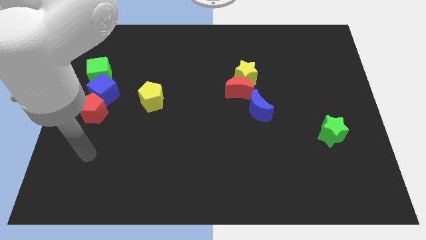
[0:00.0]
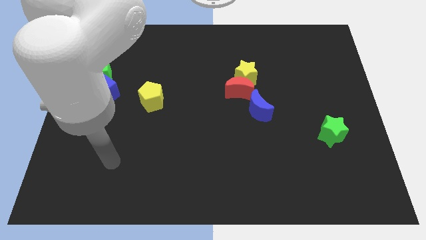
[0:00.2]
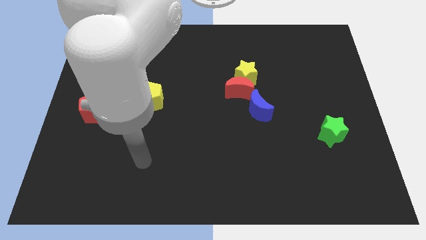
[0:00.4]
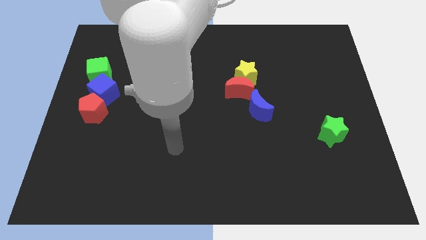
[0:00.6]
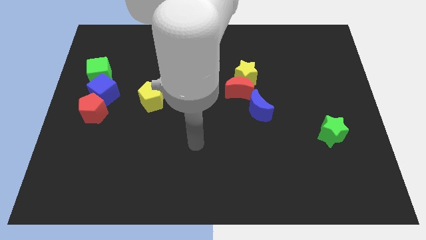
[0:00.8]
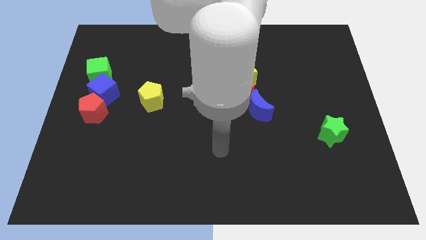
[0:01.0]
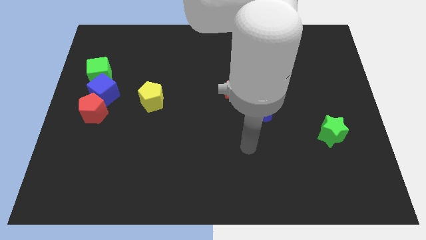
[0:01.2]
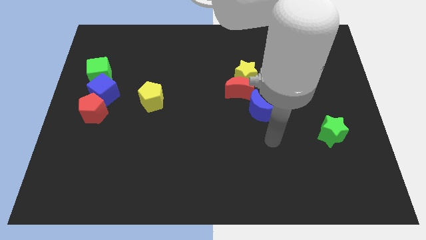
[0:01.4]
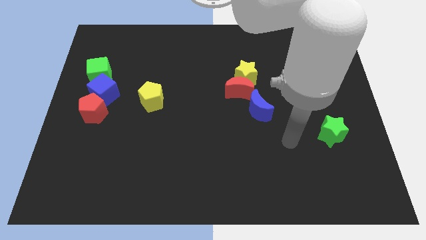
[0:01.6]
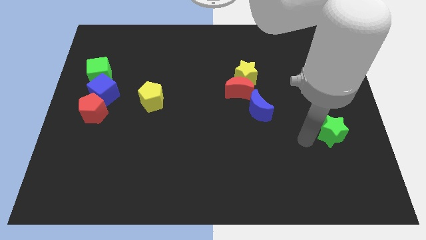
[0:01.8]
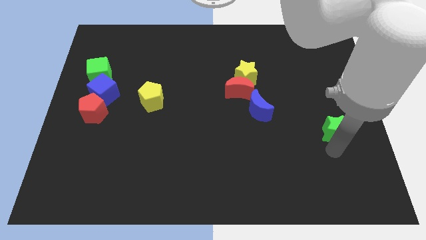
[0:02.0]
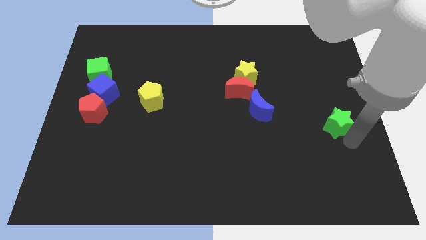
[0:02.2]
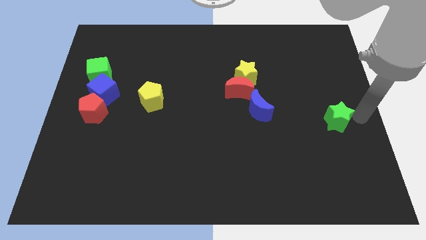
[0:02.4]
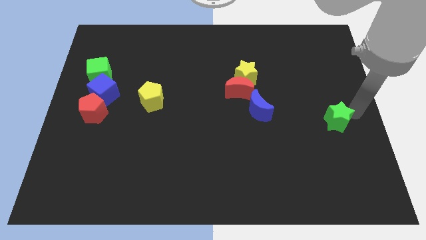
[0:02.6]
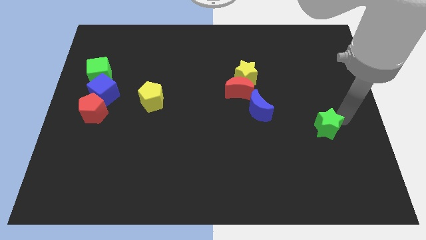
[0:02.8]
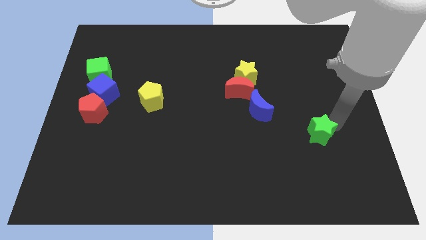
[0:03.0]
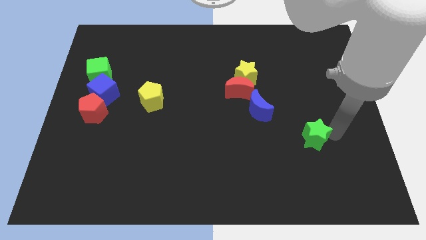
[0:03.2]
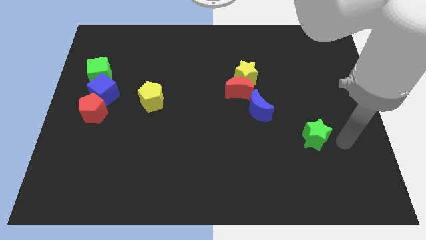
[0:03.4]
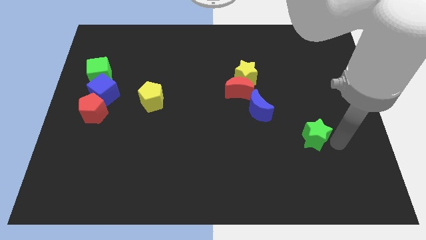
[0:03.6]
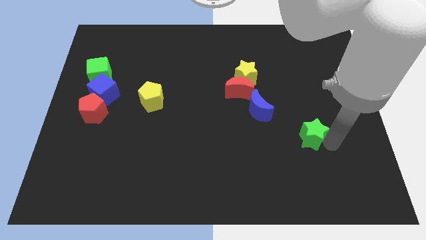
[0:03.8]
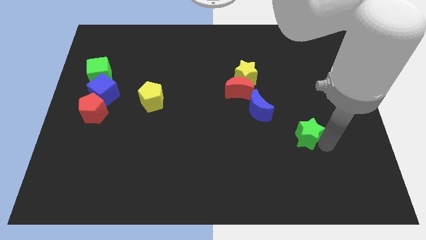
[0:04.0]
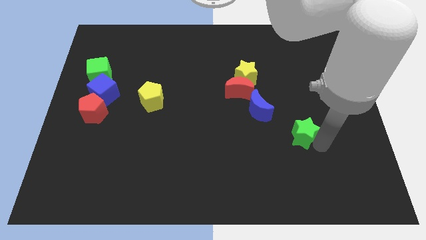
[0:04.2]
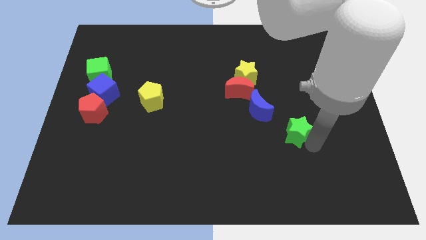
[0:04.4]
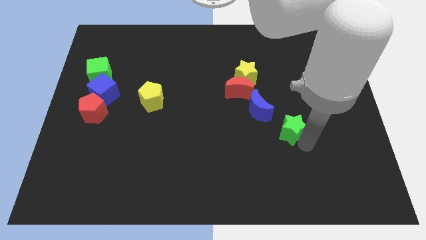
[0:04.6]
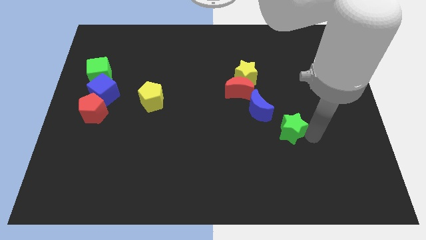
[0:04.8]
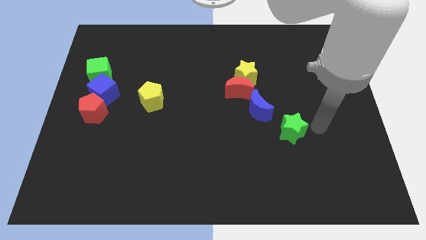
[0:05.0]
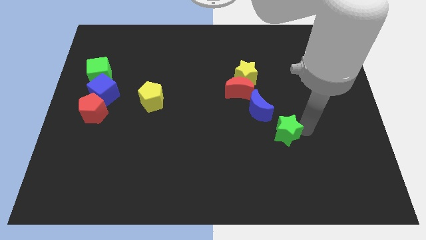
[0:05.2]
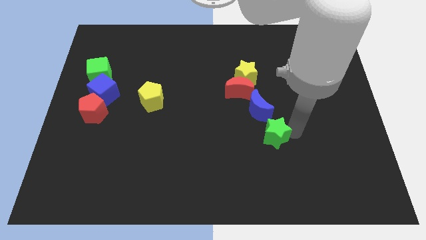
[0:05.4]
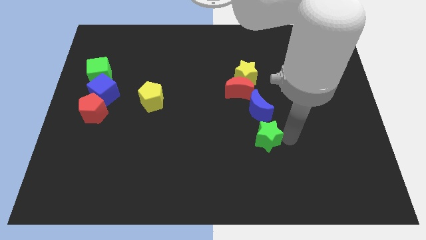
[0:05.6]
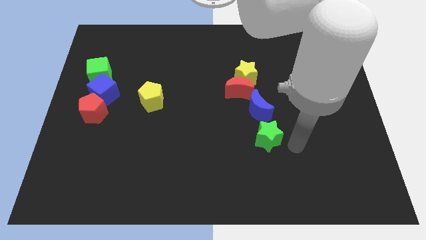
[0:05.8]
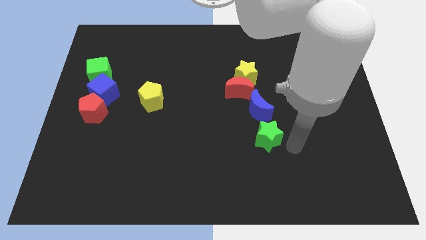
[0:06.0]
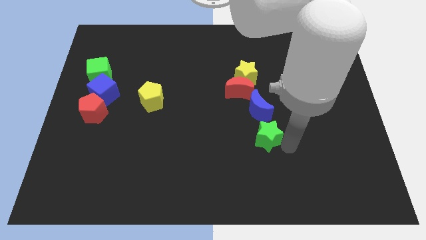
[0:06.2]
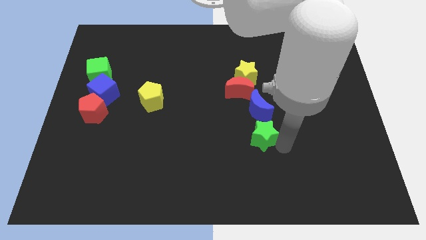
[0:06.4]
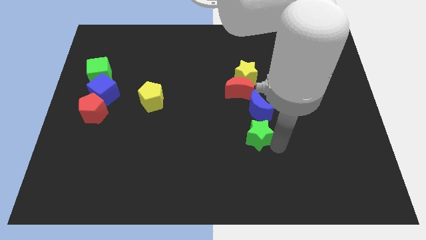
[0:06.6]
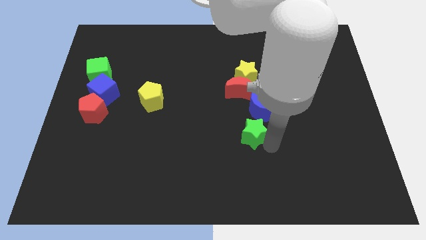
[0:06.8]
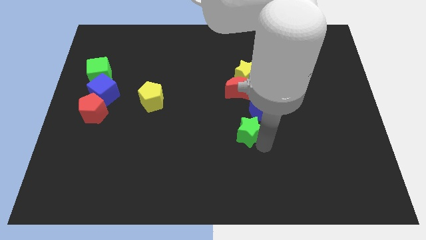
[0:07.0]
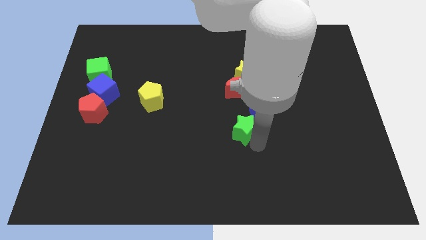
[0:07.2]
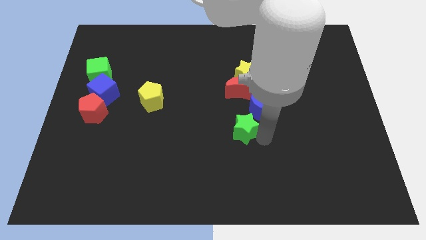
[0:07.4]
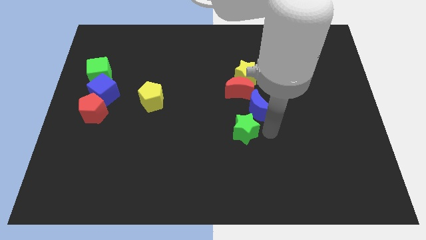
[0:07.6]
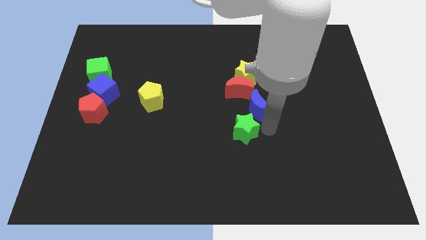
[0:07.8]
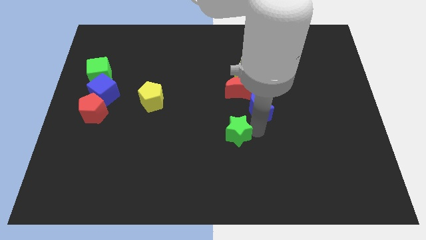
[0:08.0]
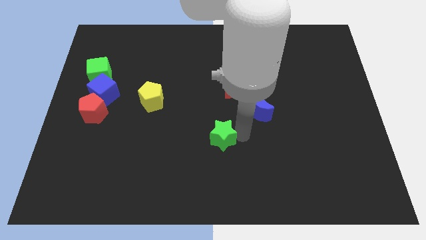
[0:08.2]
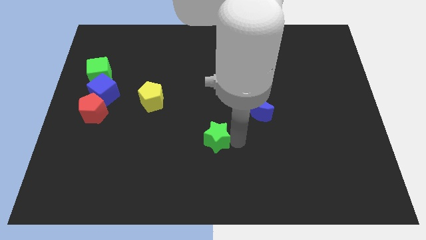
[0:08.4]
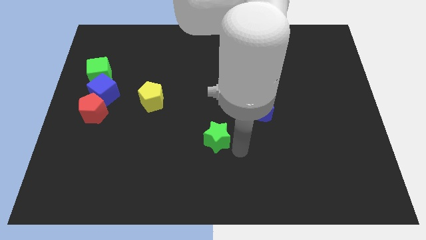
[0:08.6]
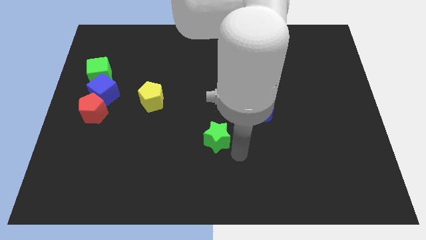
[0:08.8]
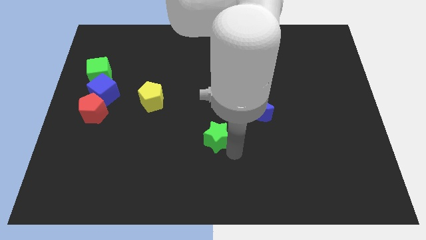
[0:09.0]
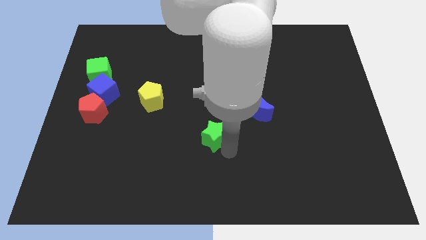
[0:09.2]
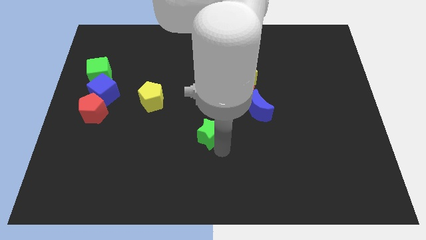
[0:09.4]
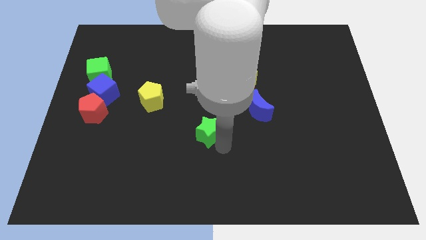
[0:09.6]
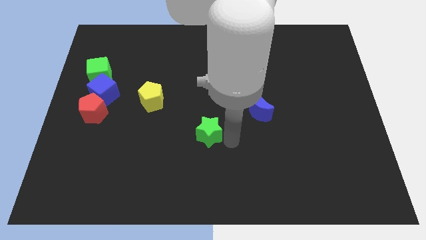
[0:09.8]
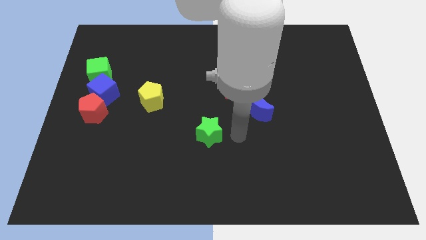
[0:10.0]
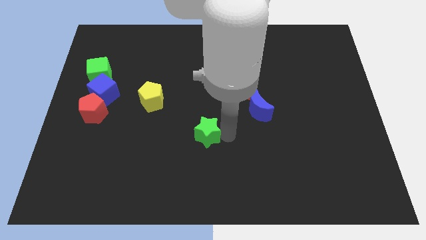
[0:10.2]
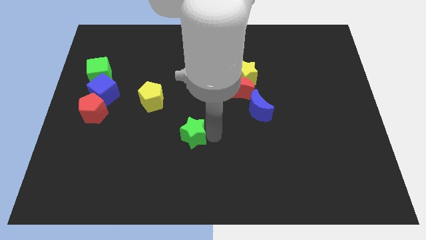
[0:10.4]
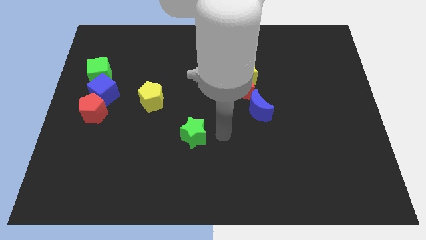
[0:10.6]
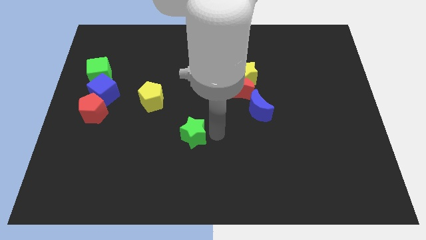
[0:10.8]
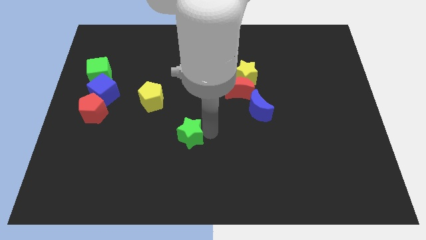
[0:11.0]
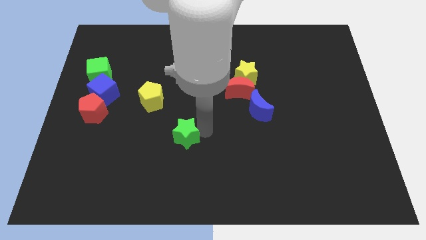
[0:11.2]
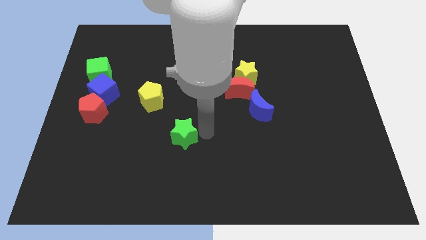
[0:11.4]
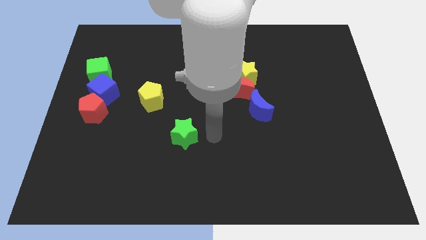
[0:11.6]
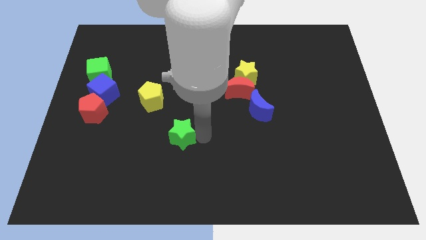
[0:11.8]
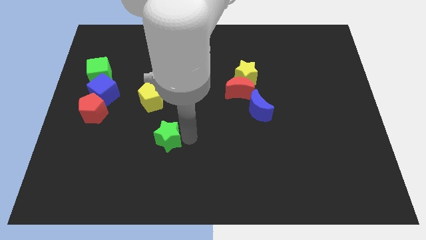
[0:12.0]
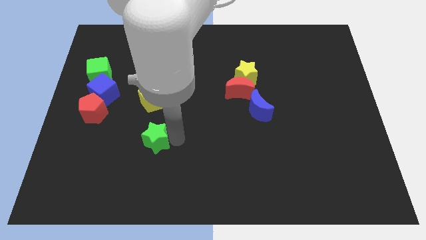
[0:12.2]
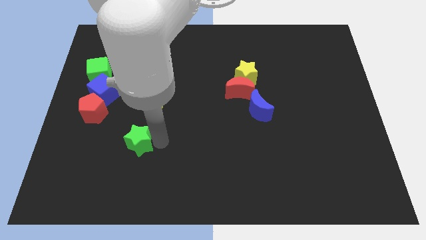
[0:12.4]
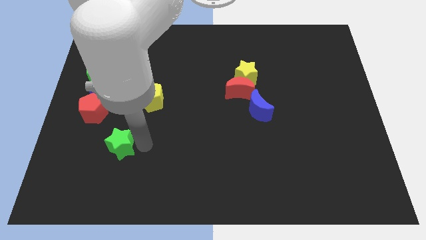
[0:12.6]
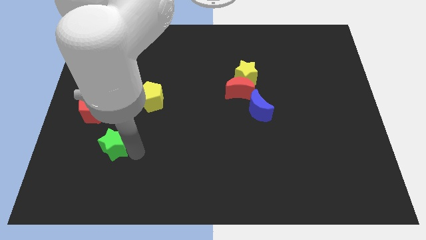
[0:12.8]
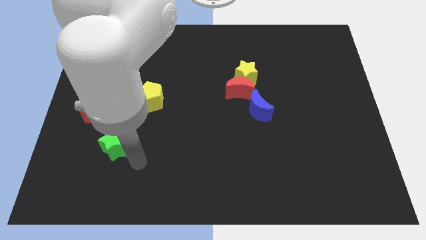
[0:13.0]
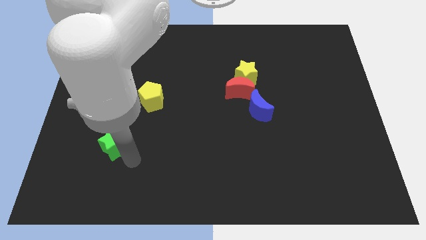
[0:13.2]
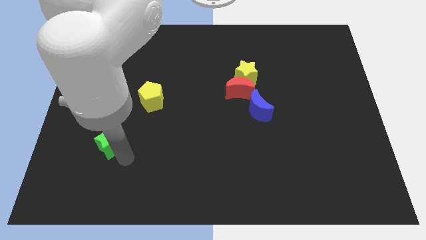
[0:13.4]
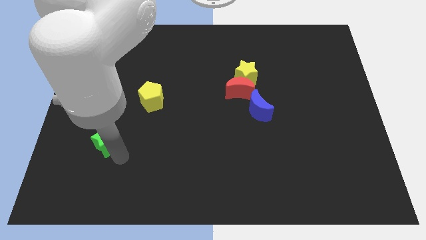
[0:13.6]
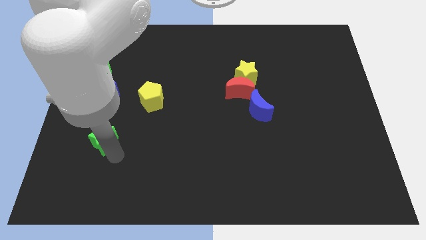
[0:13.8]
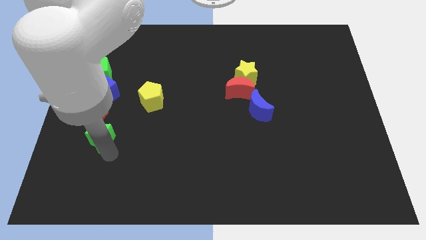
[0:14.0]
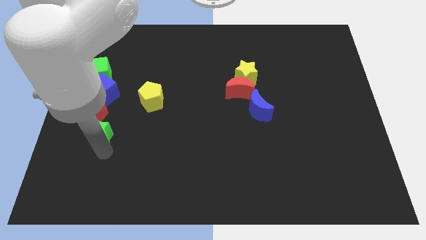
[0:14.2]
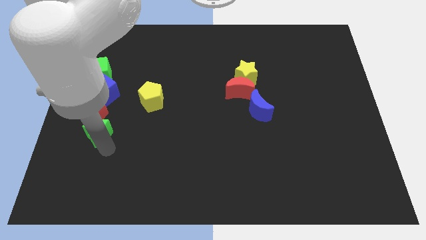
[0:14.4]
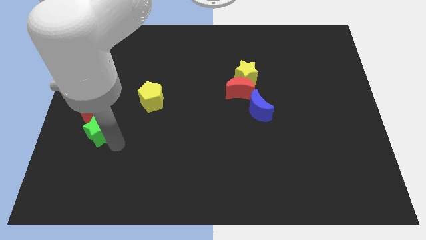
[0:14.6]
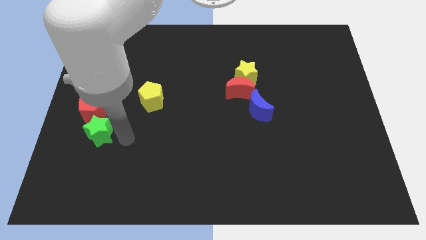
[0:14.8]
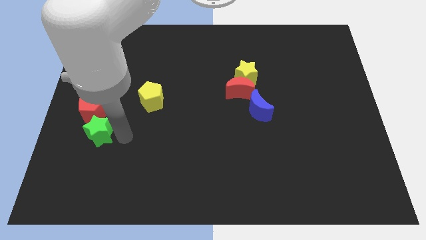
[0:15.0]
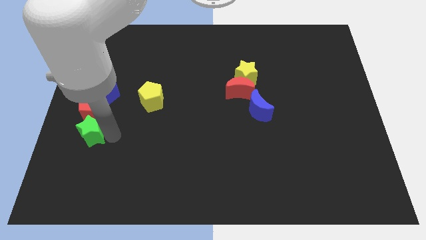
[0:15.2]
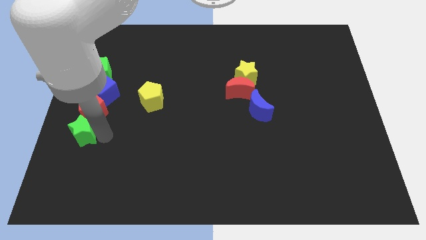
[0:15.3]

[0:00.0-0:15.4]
put the green star to the center left
